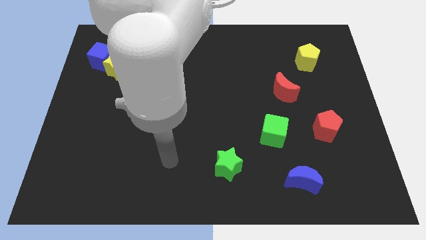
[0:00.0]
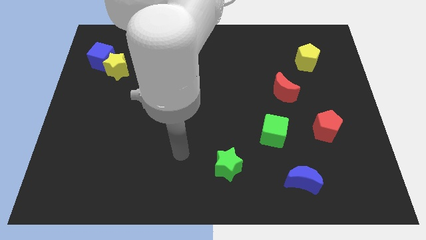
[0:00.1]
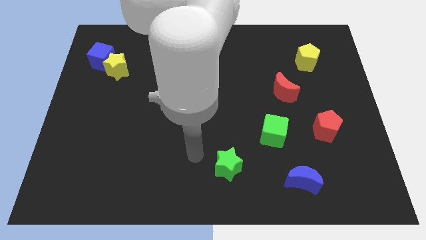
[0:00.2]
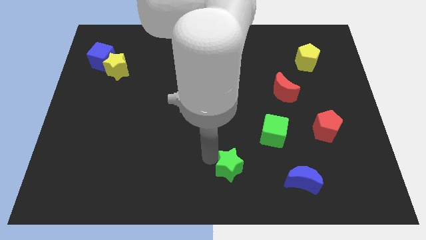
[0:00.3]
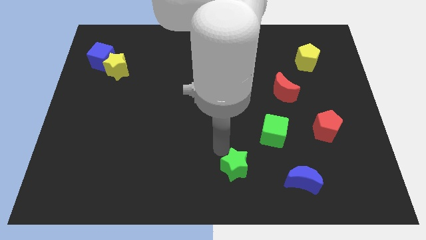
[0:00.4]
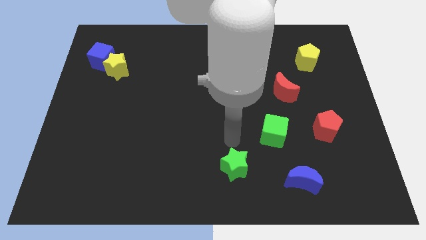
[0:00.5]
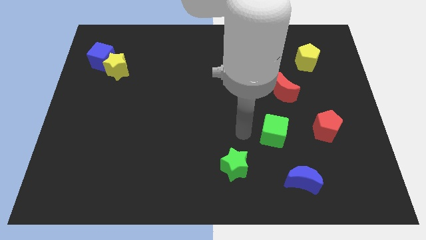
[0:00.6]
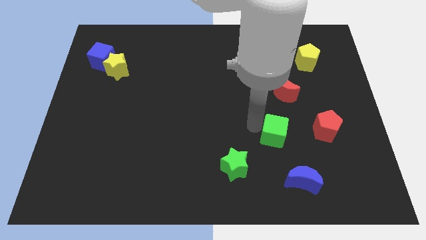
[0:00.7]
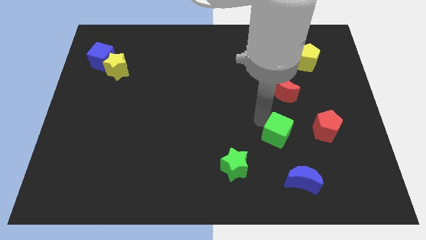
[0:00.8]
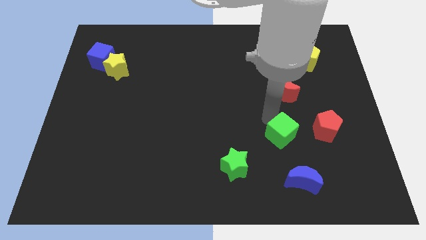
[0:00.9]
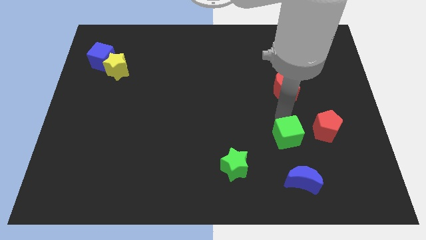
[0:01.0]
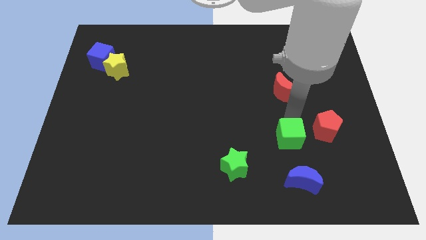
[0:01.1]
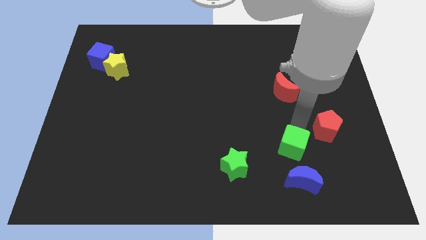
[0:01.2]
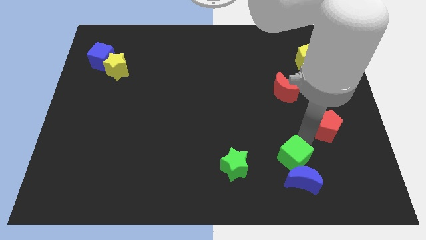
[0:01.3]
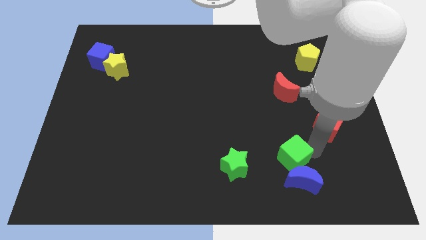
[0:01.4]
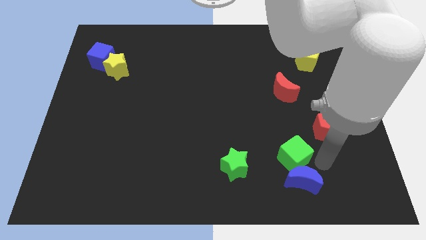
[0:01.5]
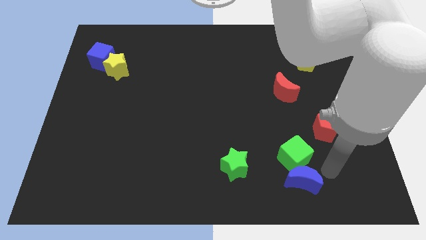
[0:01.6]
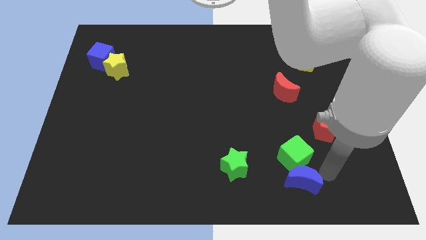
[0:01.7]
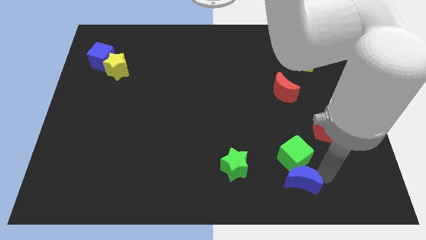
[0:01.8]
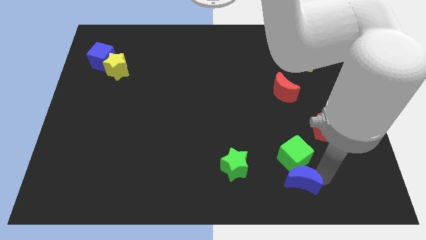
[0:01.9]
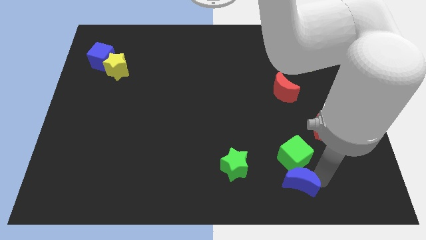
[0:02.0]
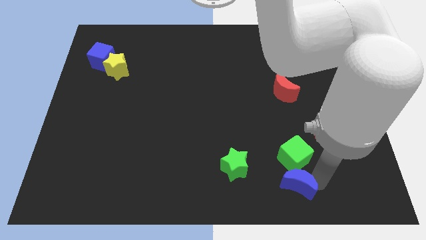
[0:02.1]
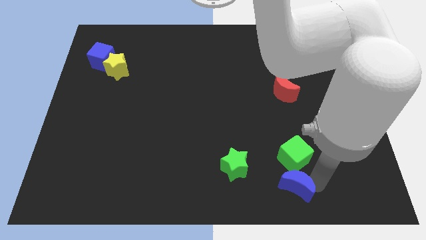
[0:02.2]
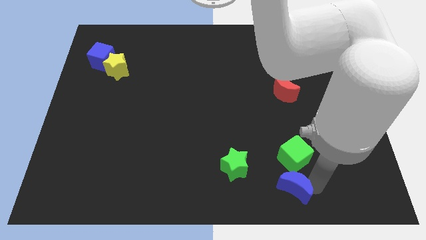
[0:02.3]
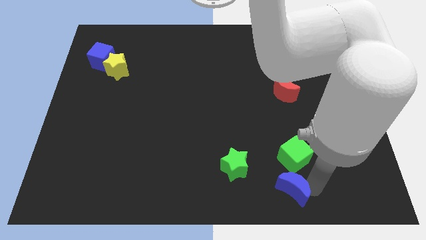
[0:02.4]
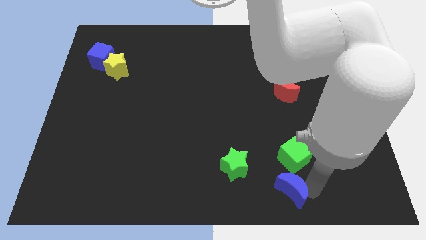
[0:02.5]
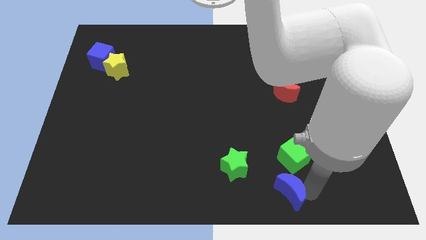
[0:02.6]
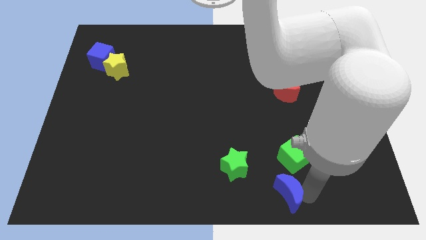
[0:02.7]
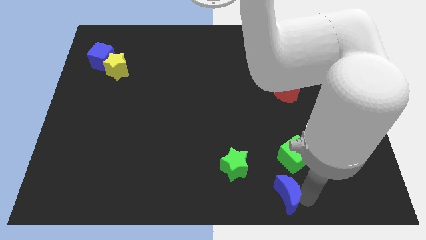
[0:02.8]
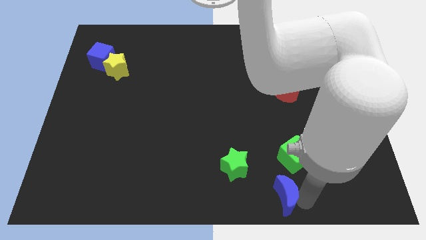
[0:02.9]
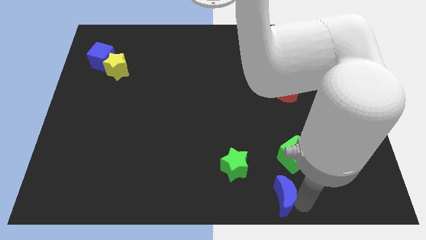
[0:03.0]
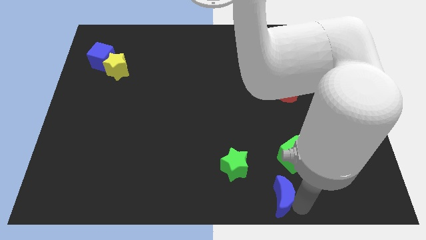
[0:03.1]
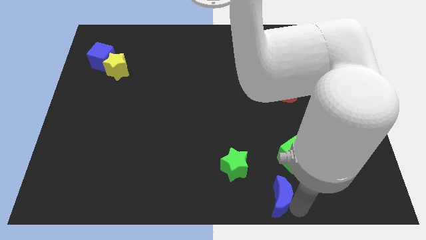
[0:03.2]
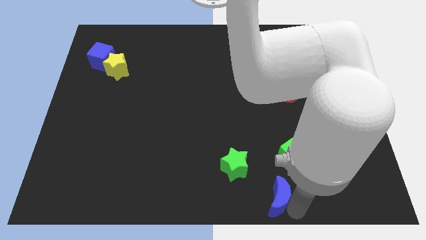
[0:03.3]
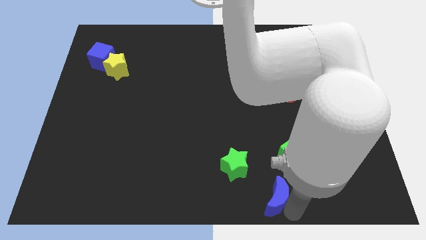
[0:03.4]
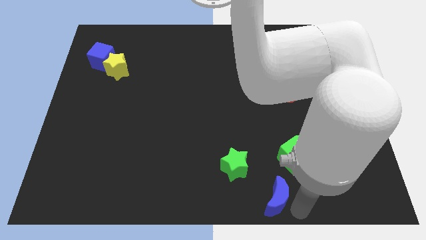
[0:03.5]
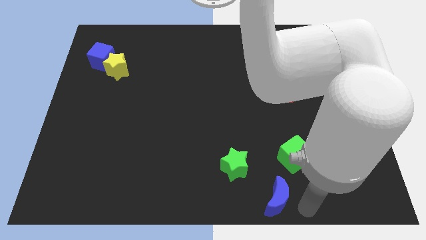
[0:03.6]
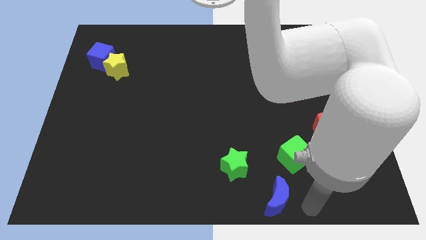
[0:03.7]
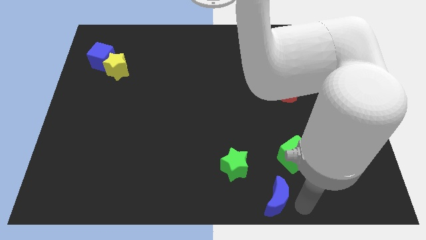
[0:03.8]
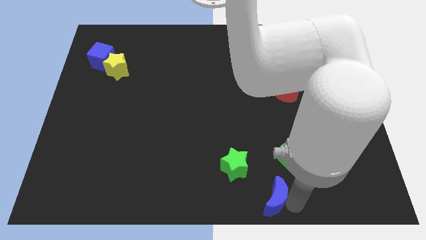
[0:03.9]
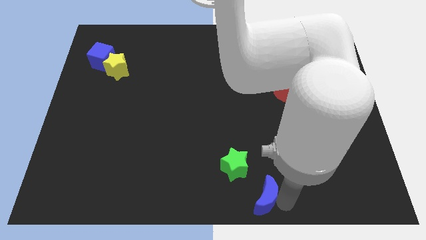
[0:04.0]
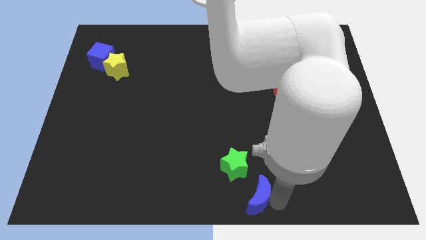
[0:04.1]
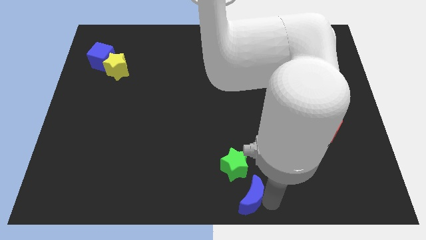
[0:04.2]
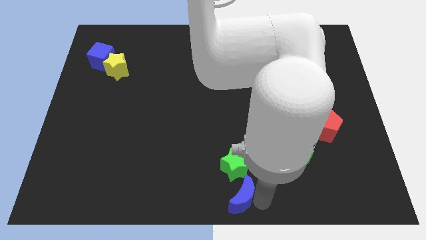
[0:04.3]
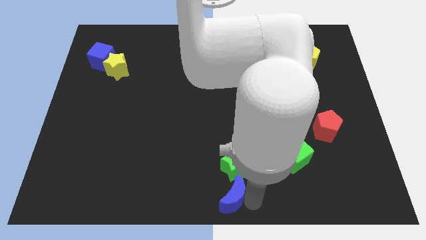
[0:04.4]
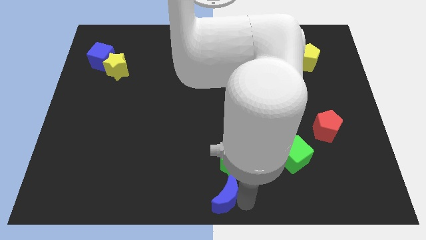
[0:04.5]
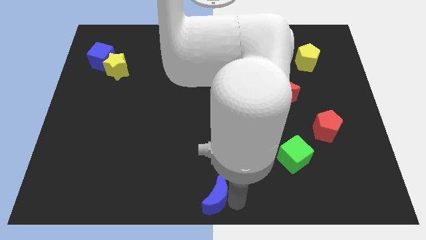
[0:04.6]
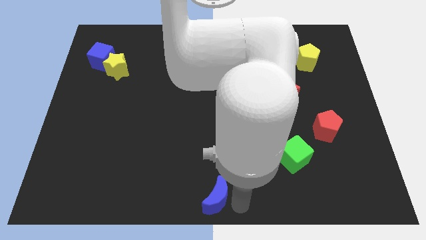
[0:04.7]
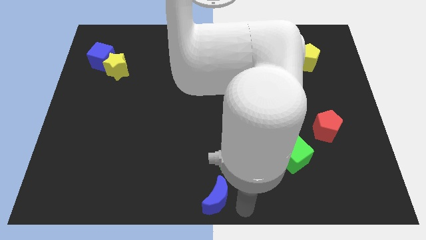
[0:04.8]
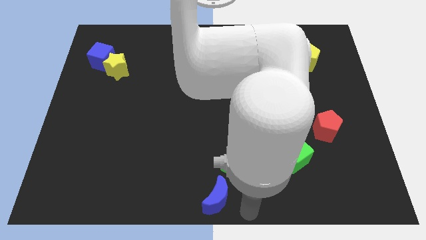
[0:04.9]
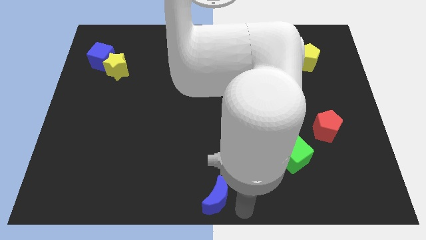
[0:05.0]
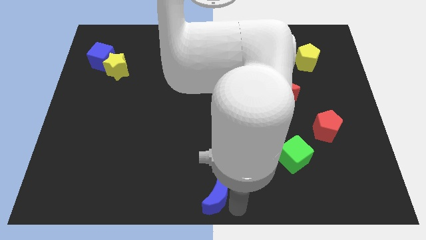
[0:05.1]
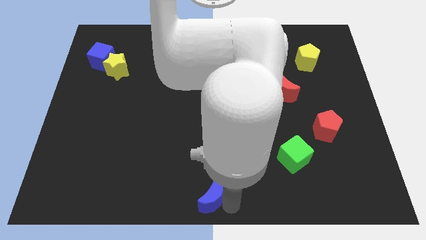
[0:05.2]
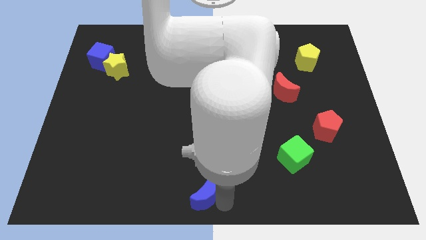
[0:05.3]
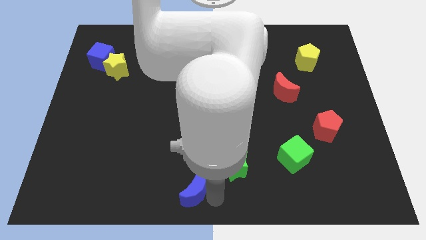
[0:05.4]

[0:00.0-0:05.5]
move the blue moon left

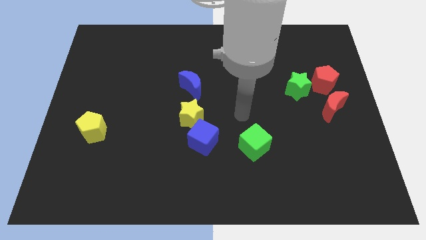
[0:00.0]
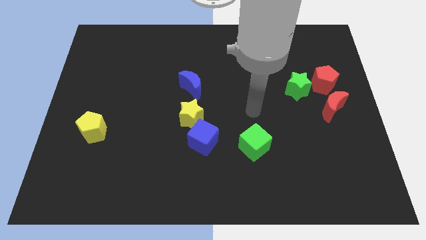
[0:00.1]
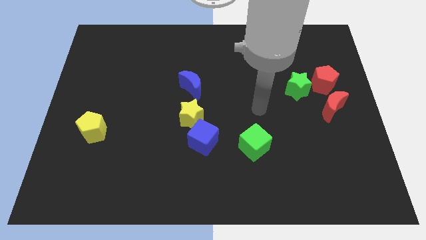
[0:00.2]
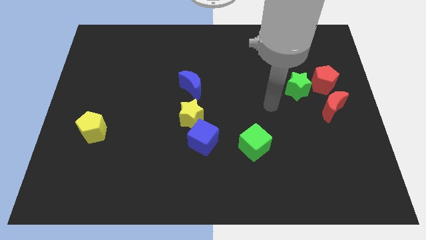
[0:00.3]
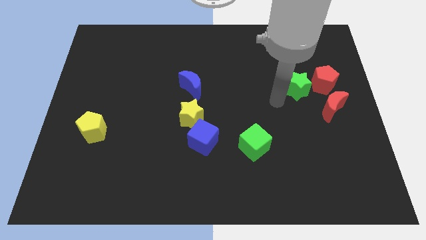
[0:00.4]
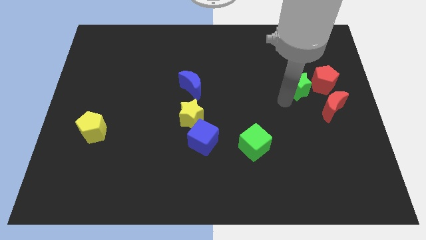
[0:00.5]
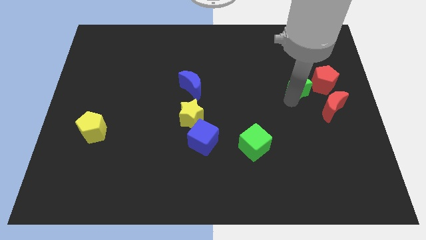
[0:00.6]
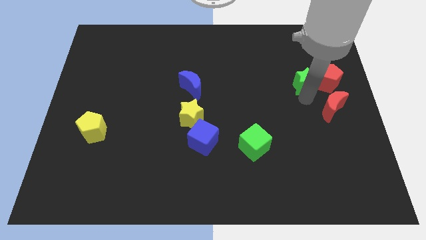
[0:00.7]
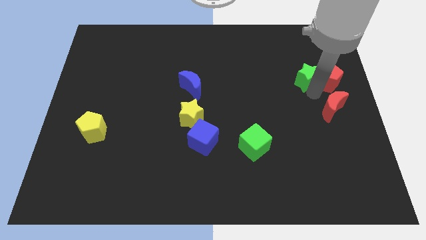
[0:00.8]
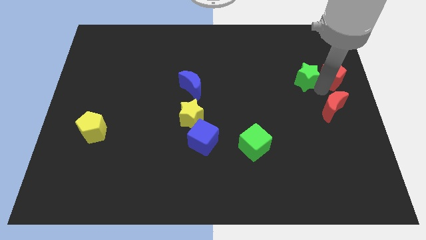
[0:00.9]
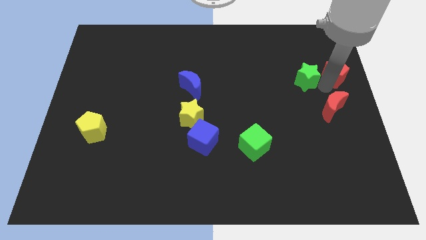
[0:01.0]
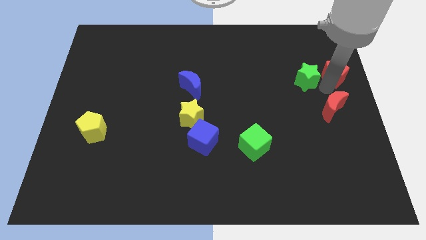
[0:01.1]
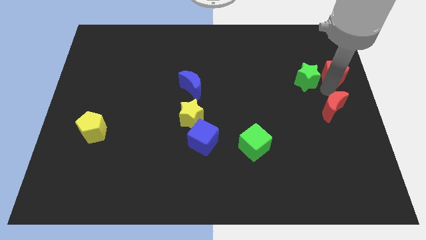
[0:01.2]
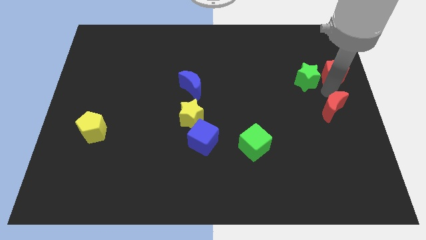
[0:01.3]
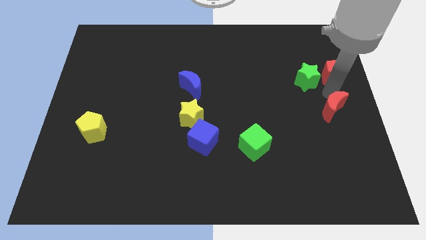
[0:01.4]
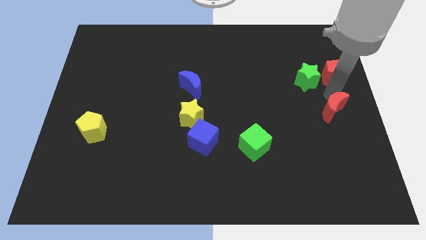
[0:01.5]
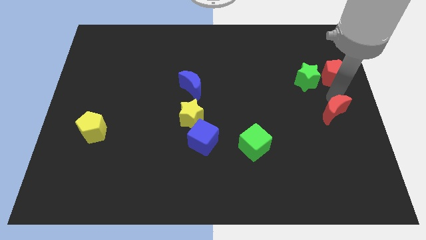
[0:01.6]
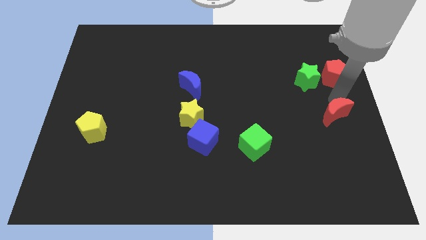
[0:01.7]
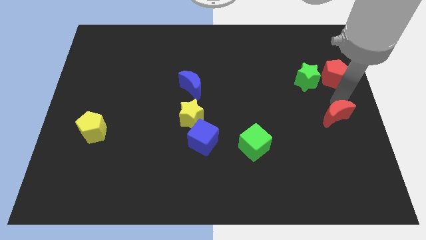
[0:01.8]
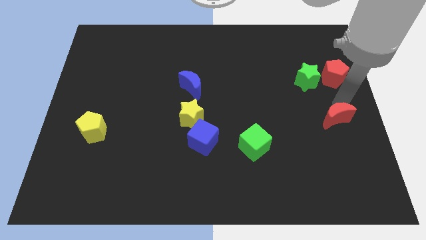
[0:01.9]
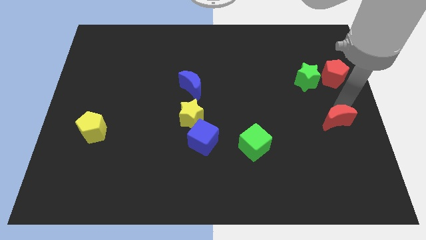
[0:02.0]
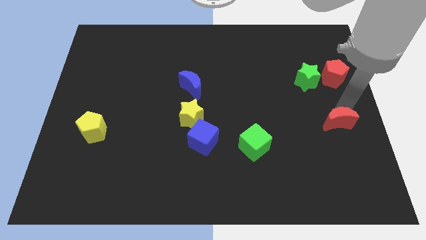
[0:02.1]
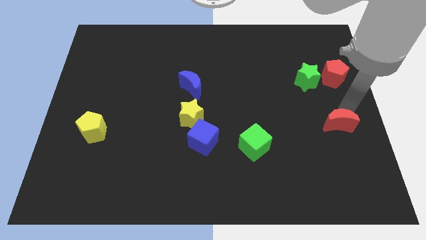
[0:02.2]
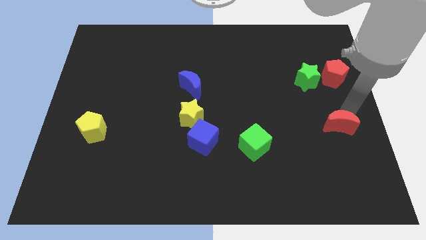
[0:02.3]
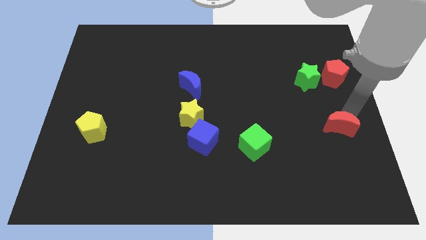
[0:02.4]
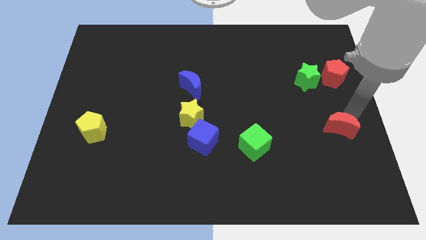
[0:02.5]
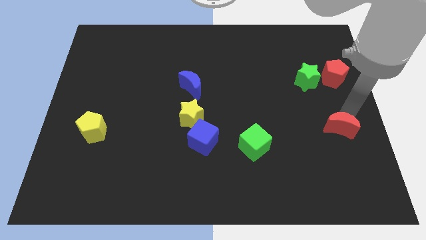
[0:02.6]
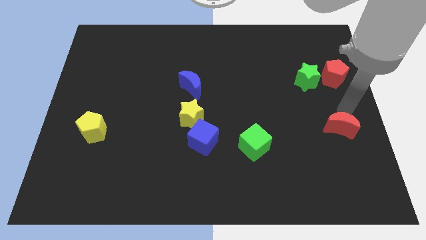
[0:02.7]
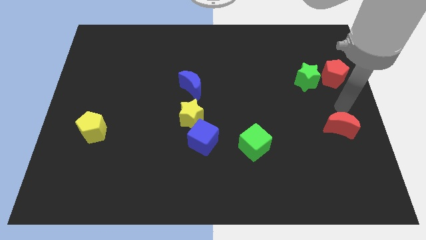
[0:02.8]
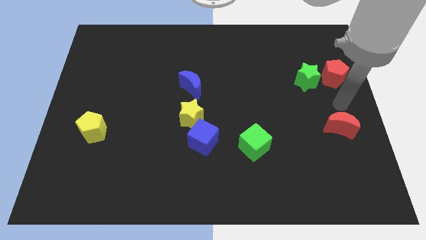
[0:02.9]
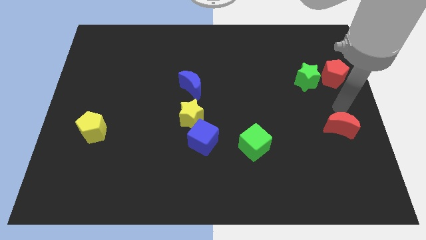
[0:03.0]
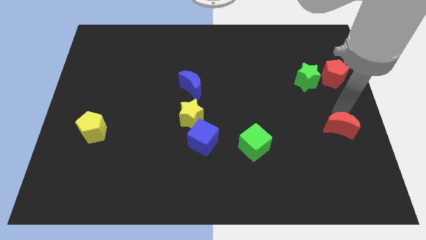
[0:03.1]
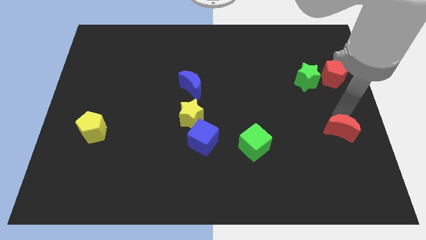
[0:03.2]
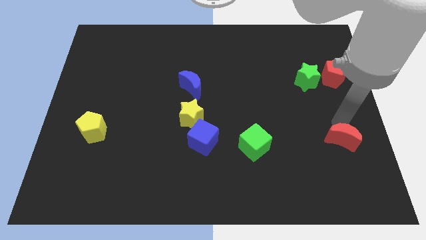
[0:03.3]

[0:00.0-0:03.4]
push the red moon down a little
